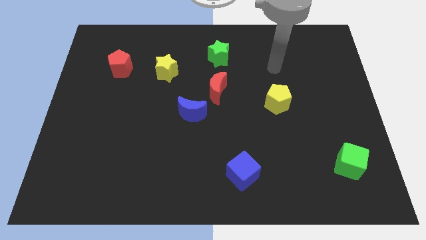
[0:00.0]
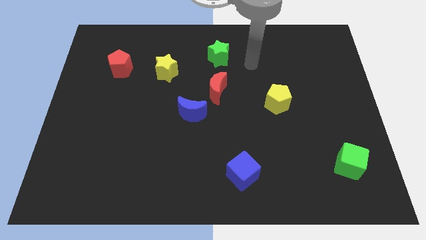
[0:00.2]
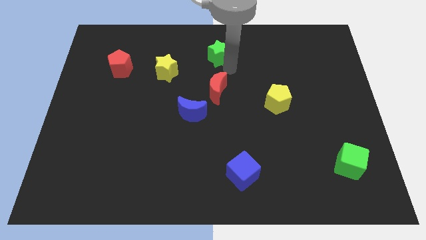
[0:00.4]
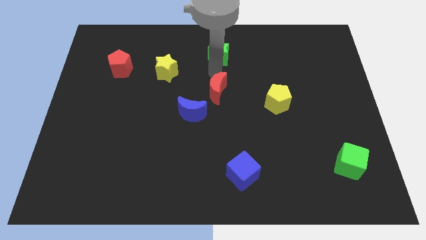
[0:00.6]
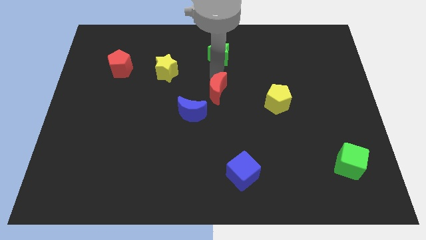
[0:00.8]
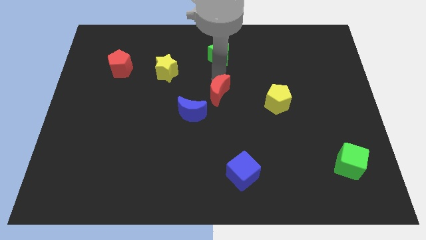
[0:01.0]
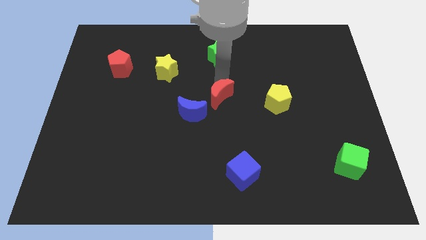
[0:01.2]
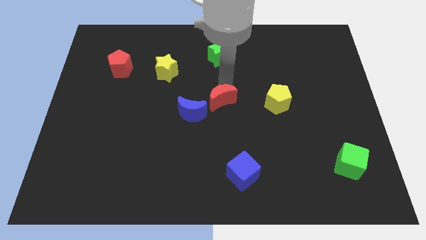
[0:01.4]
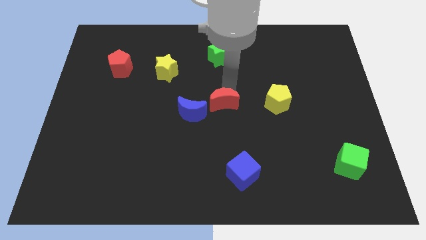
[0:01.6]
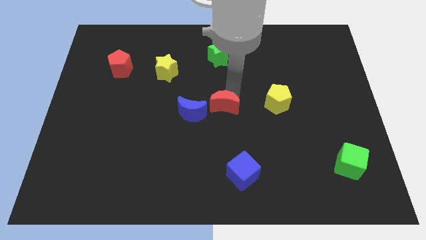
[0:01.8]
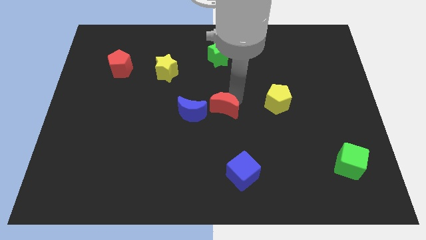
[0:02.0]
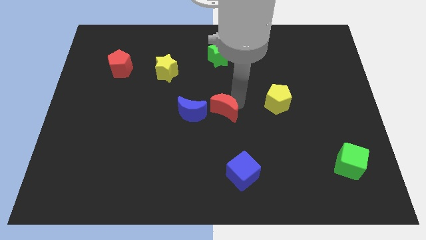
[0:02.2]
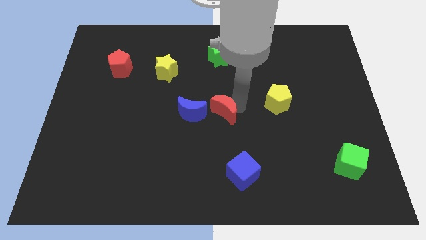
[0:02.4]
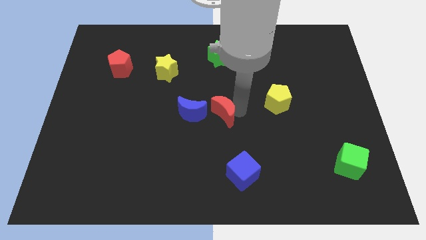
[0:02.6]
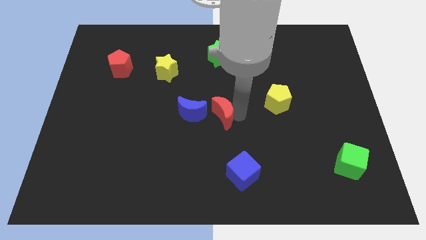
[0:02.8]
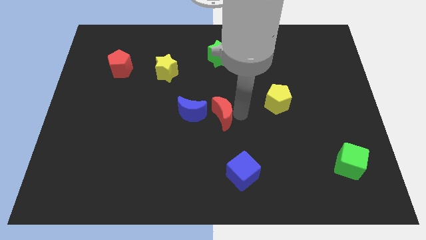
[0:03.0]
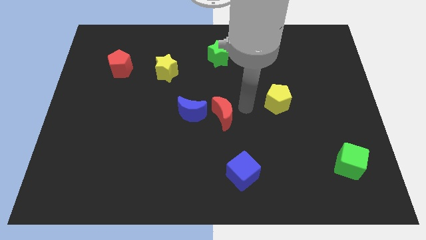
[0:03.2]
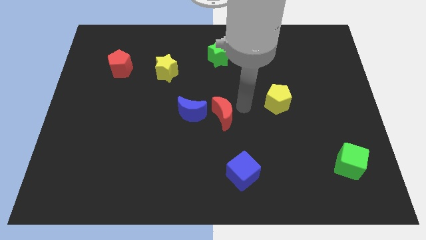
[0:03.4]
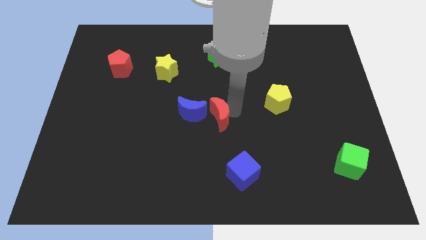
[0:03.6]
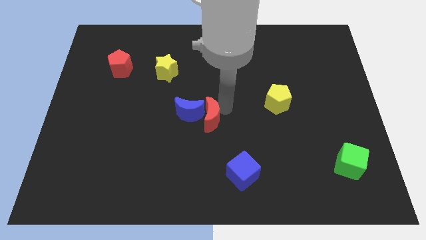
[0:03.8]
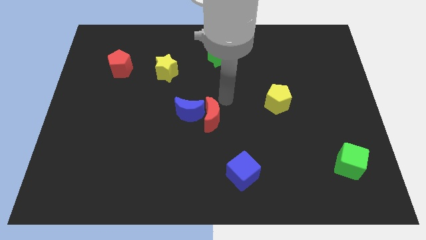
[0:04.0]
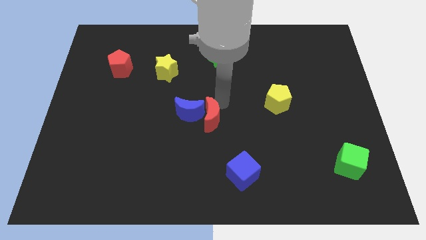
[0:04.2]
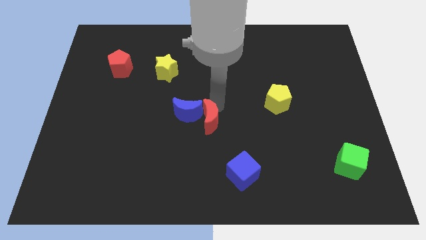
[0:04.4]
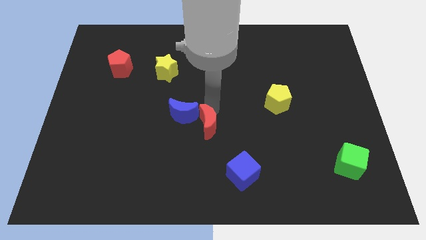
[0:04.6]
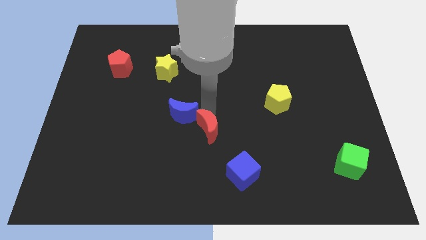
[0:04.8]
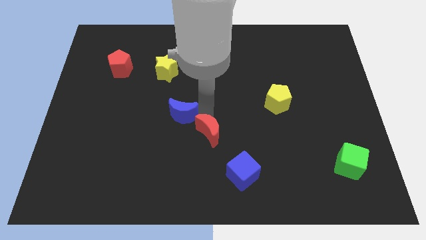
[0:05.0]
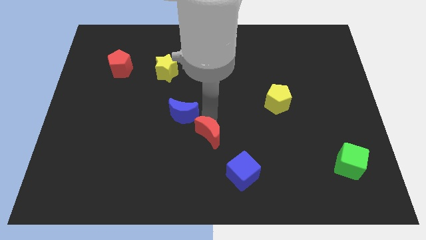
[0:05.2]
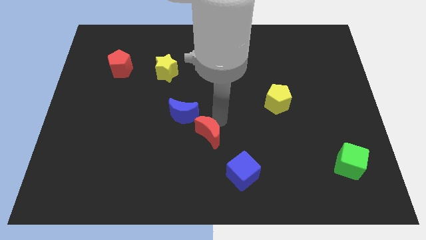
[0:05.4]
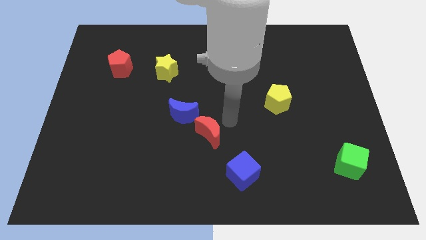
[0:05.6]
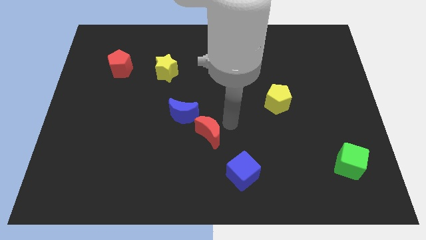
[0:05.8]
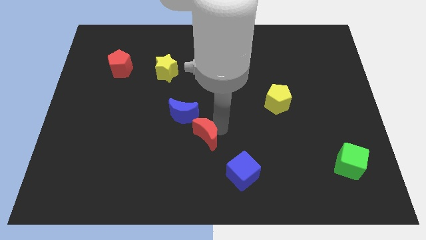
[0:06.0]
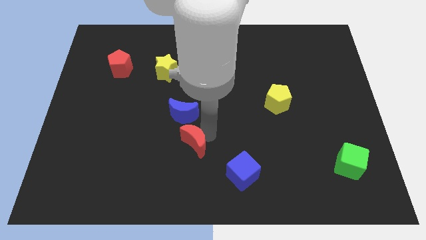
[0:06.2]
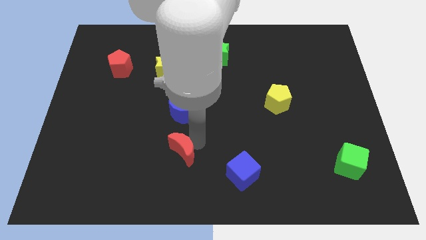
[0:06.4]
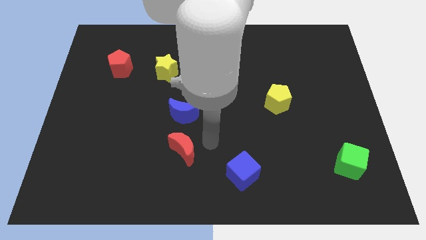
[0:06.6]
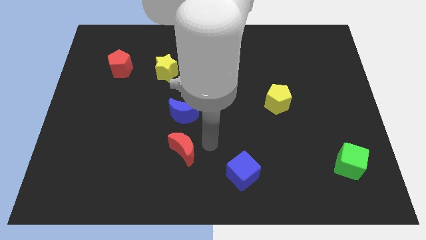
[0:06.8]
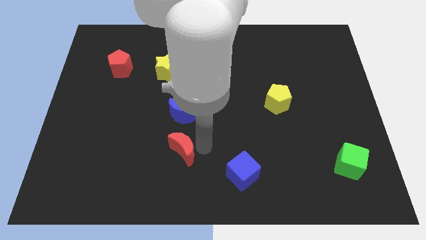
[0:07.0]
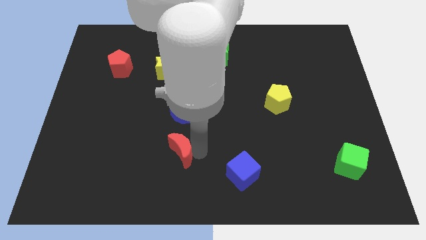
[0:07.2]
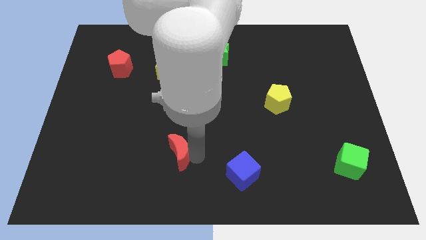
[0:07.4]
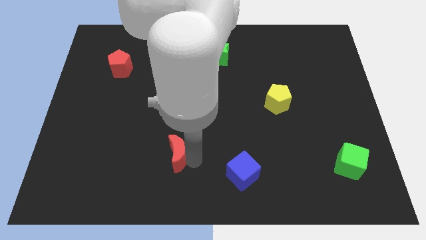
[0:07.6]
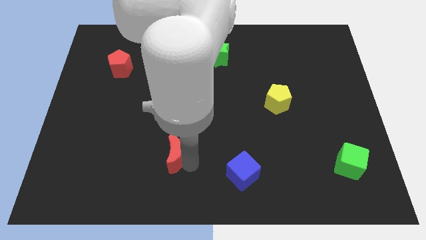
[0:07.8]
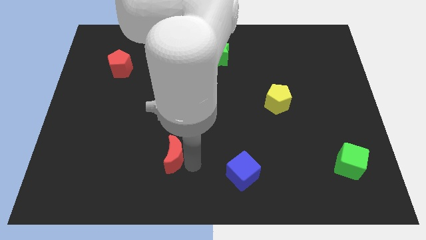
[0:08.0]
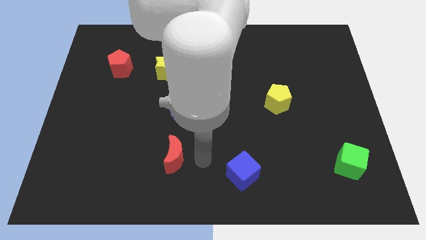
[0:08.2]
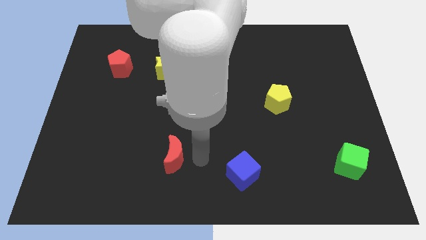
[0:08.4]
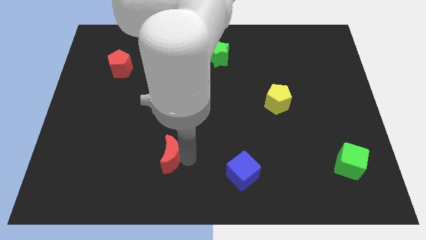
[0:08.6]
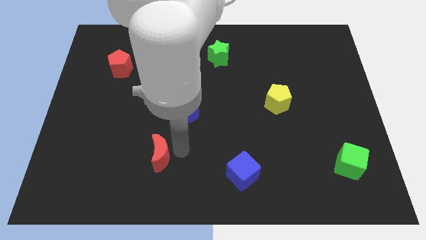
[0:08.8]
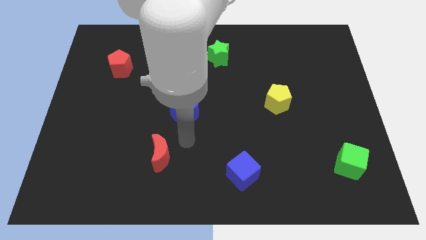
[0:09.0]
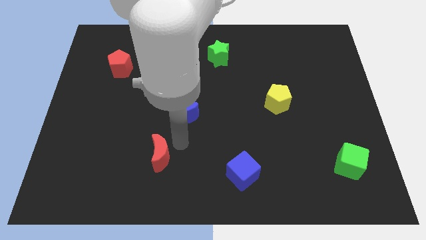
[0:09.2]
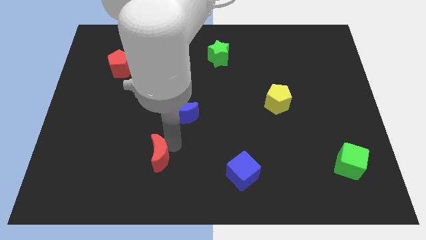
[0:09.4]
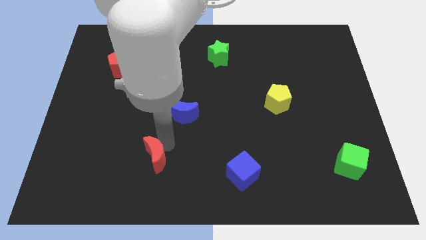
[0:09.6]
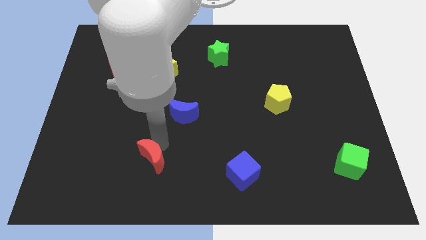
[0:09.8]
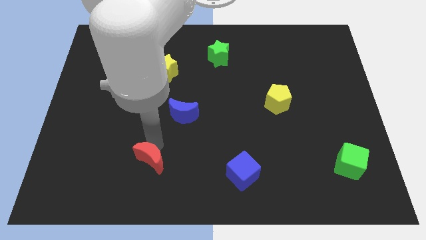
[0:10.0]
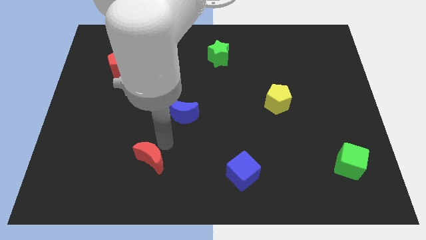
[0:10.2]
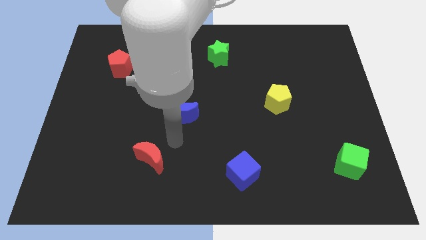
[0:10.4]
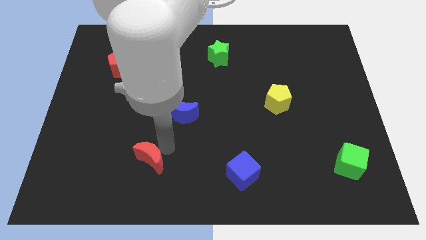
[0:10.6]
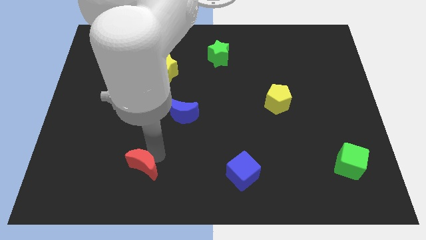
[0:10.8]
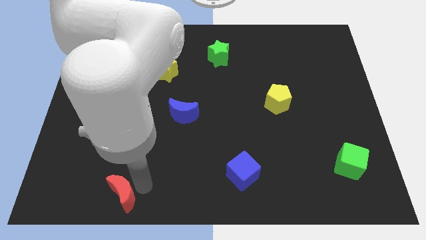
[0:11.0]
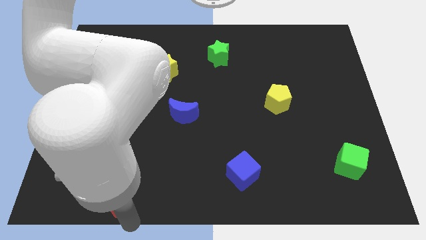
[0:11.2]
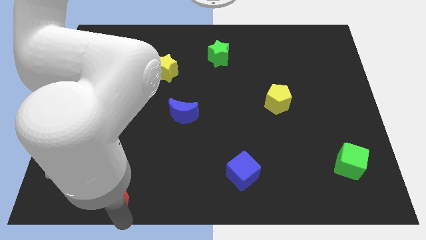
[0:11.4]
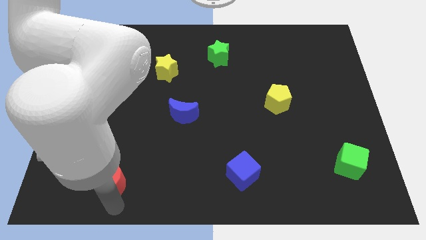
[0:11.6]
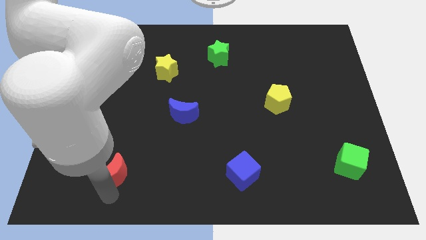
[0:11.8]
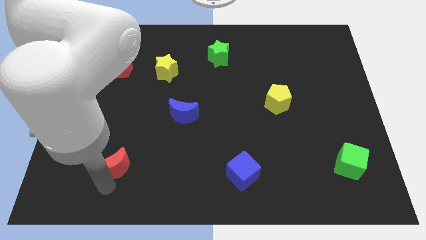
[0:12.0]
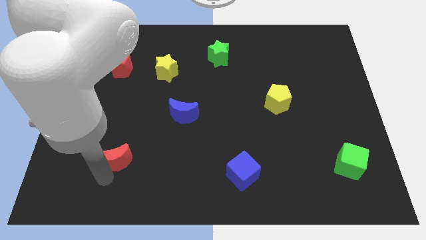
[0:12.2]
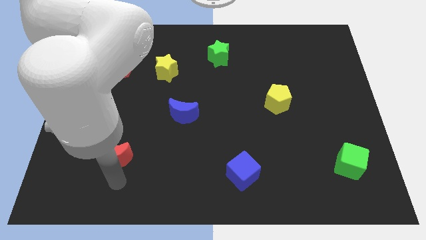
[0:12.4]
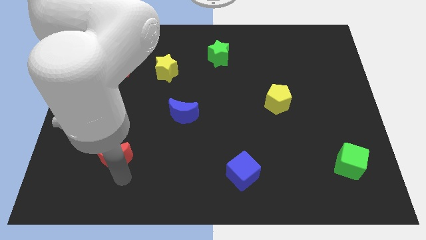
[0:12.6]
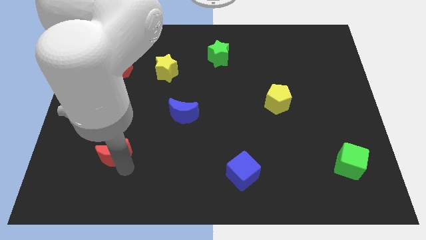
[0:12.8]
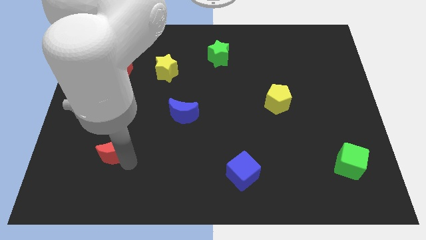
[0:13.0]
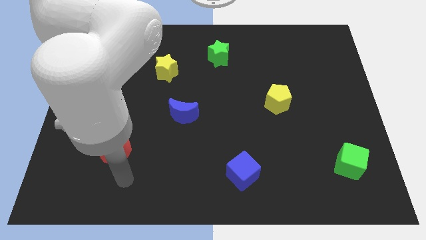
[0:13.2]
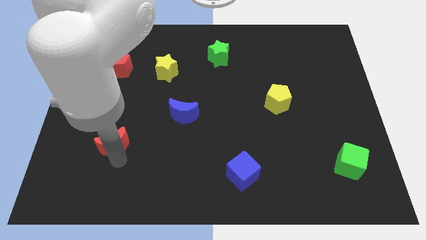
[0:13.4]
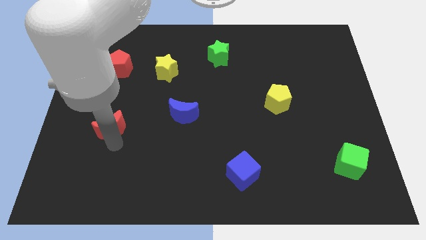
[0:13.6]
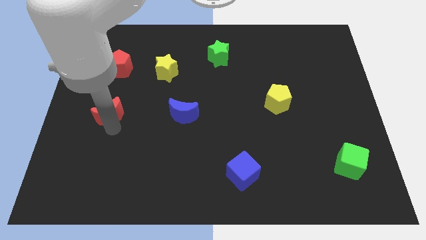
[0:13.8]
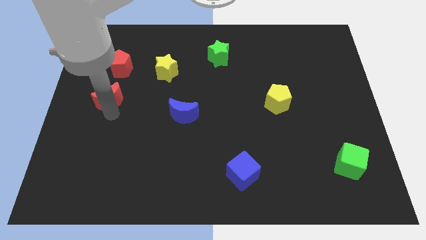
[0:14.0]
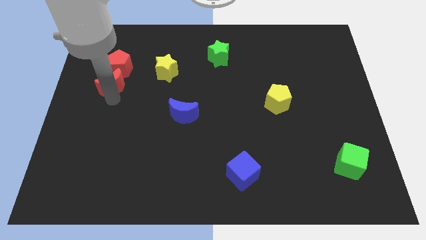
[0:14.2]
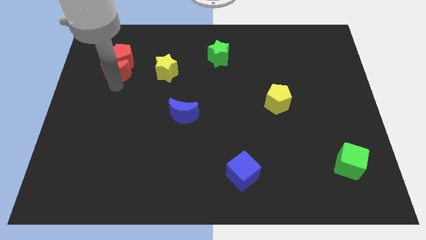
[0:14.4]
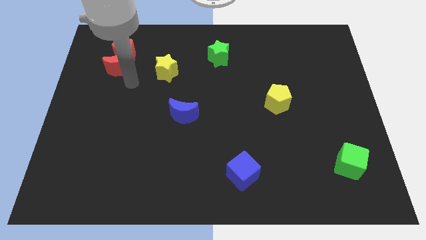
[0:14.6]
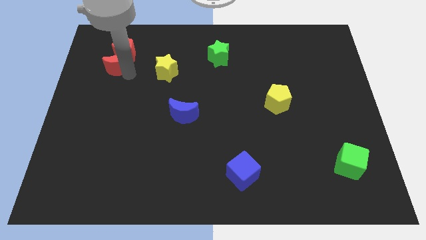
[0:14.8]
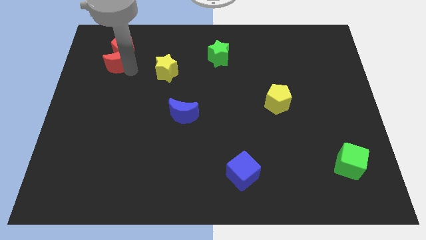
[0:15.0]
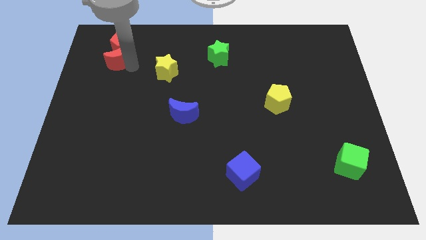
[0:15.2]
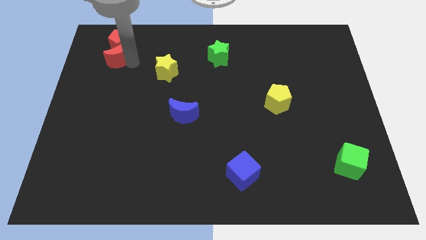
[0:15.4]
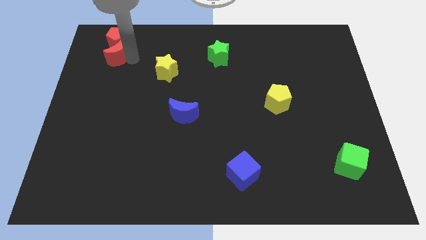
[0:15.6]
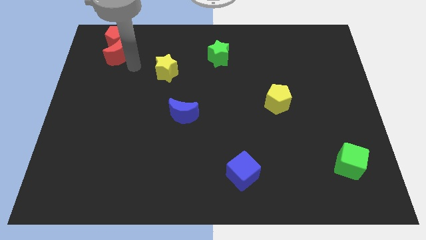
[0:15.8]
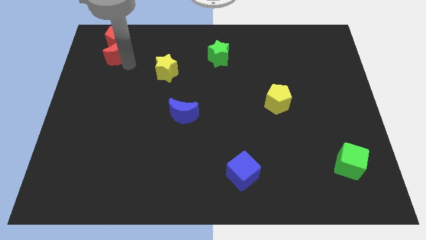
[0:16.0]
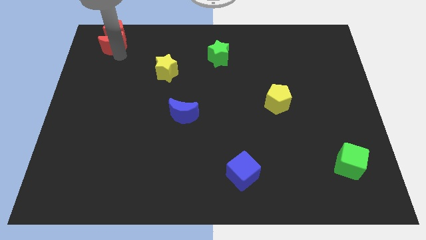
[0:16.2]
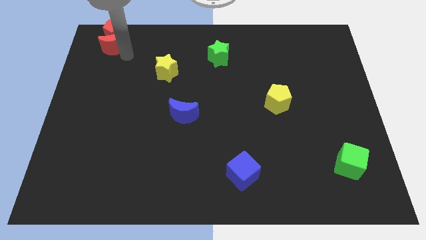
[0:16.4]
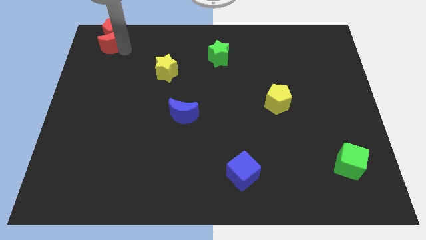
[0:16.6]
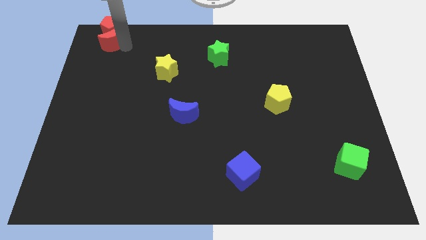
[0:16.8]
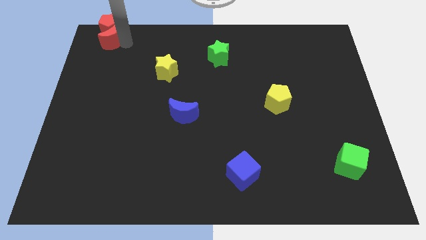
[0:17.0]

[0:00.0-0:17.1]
put the red moon to the upper left corner
